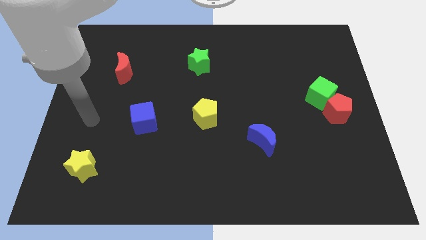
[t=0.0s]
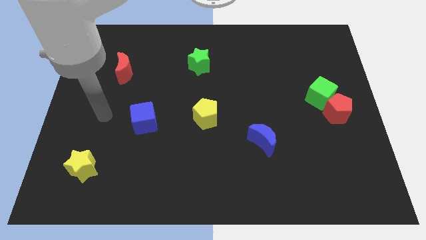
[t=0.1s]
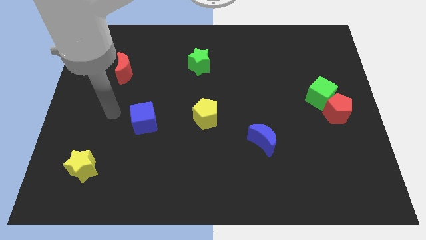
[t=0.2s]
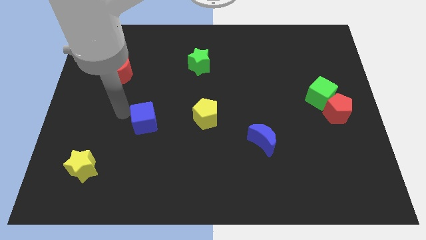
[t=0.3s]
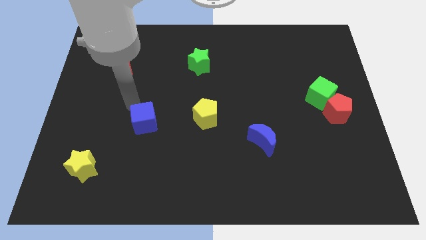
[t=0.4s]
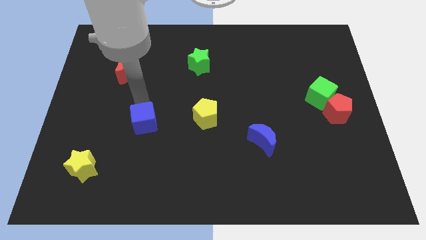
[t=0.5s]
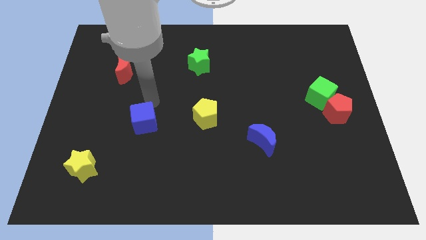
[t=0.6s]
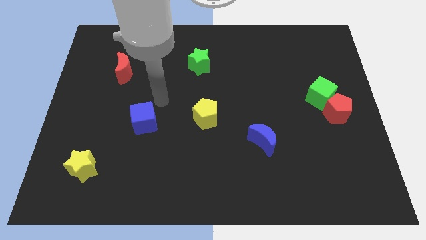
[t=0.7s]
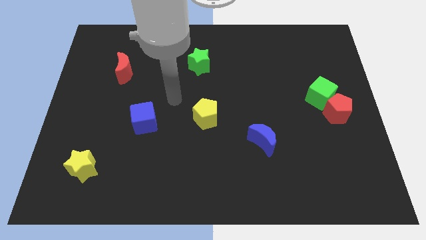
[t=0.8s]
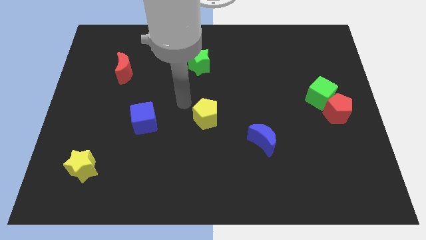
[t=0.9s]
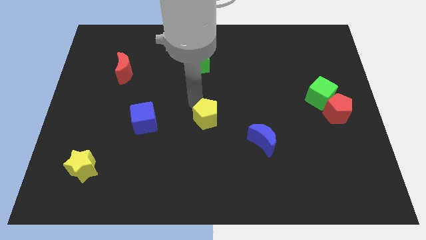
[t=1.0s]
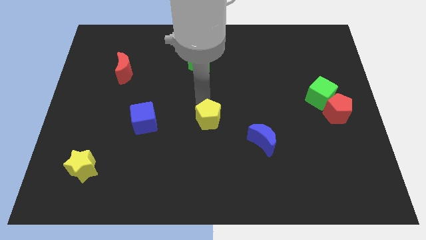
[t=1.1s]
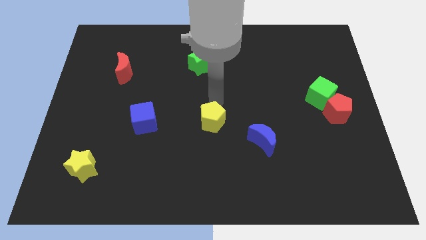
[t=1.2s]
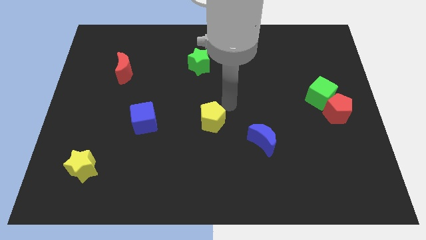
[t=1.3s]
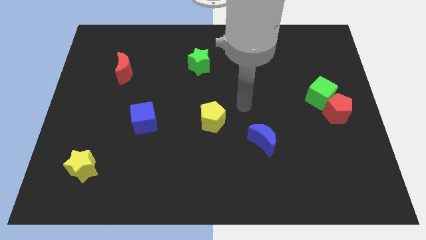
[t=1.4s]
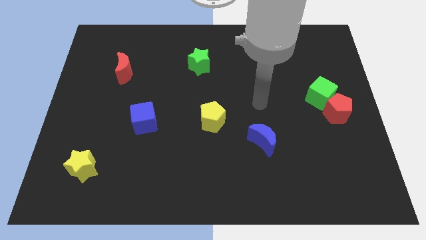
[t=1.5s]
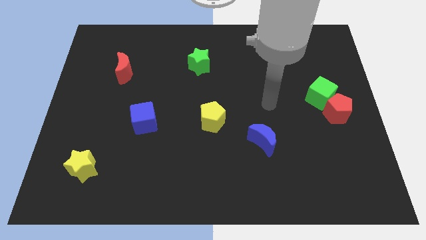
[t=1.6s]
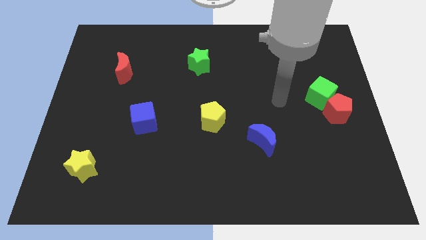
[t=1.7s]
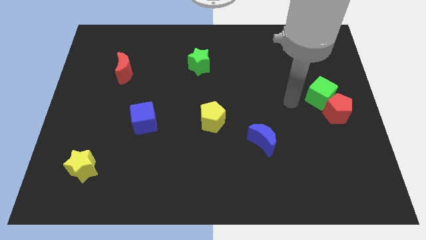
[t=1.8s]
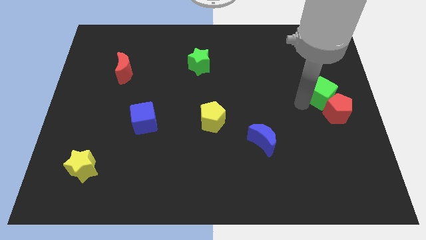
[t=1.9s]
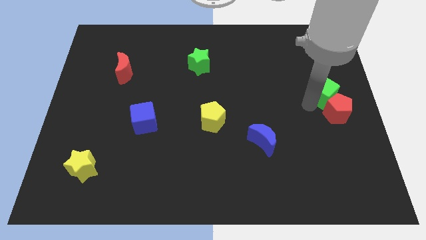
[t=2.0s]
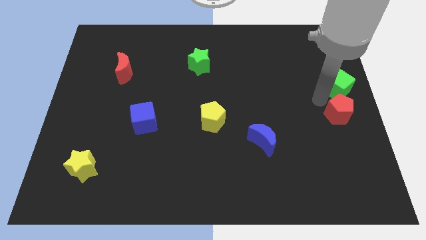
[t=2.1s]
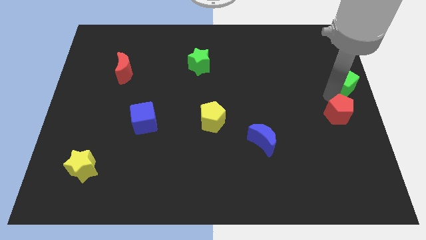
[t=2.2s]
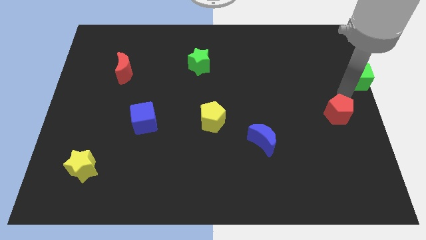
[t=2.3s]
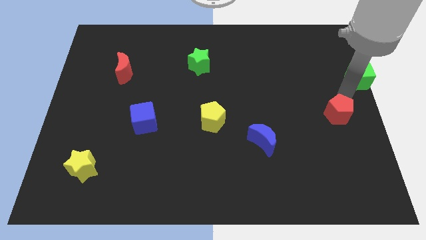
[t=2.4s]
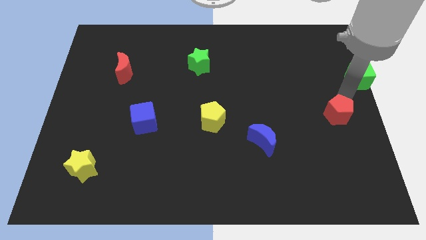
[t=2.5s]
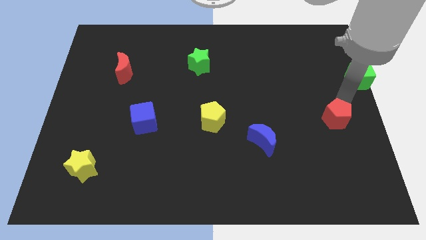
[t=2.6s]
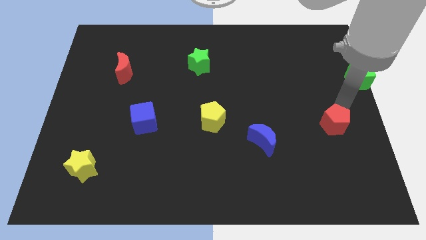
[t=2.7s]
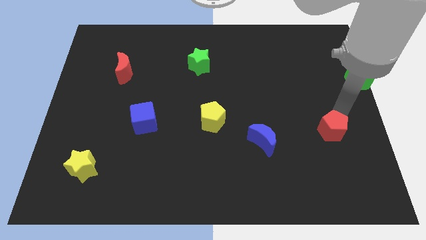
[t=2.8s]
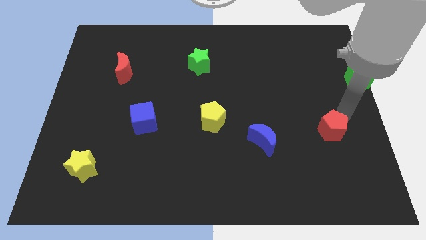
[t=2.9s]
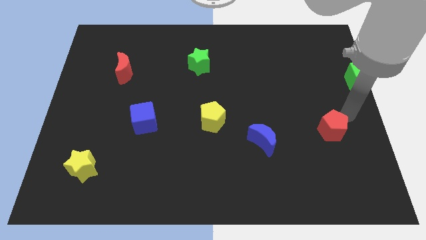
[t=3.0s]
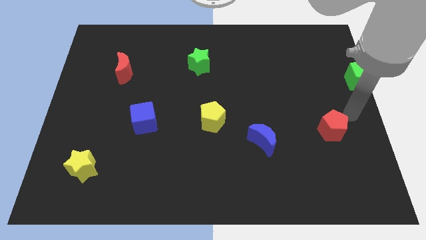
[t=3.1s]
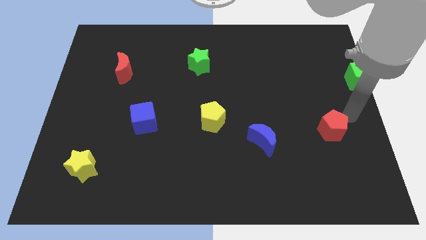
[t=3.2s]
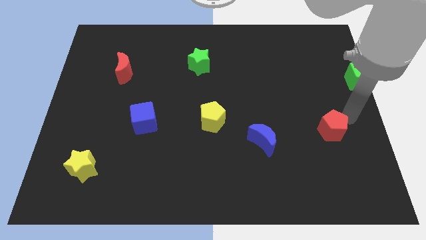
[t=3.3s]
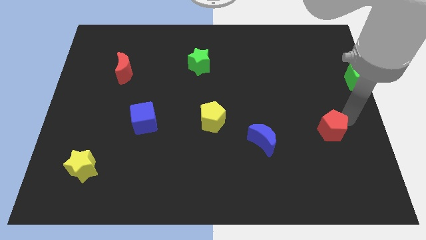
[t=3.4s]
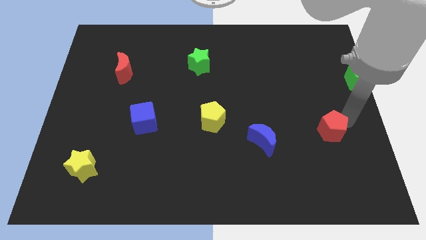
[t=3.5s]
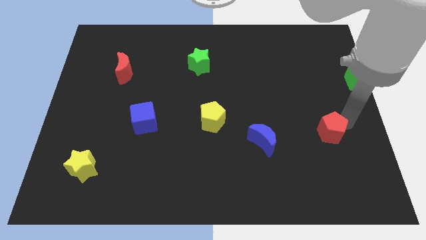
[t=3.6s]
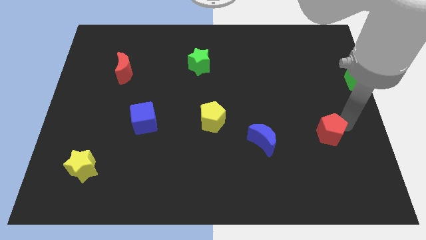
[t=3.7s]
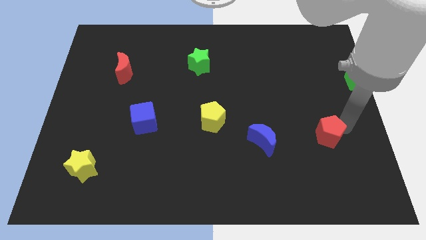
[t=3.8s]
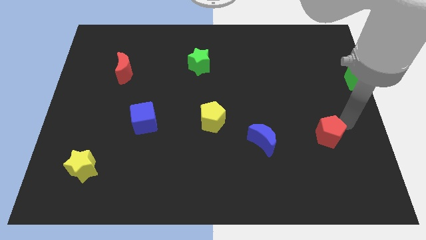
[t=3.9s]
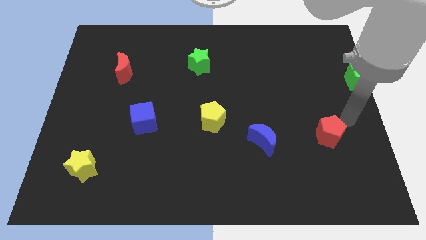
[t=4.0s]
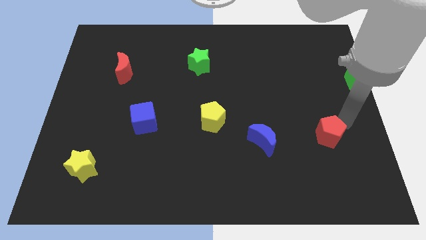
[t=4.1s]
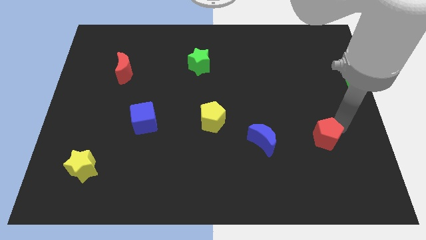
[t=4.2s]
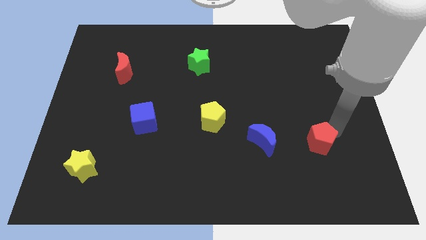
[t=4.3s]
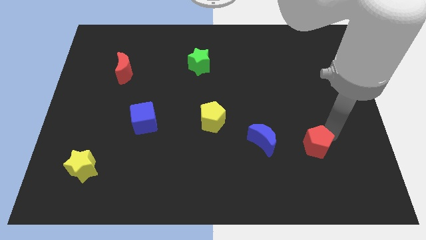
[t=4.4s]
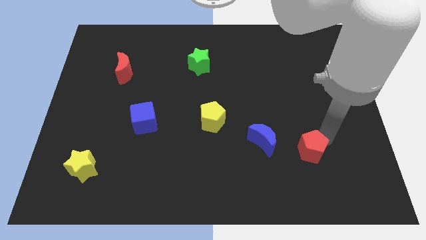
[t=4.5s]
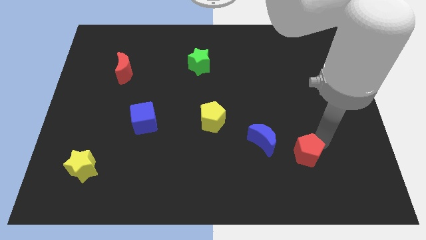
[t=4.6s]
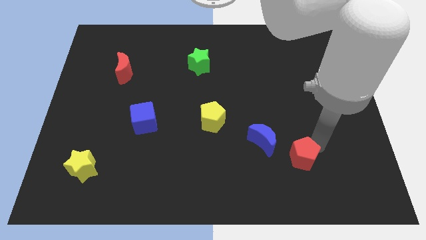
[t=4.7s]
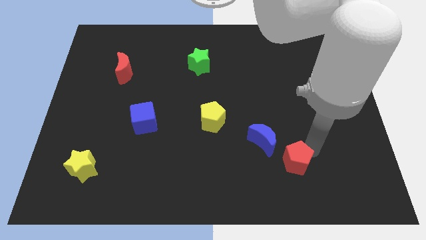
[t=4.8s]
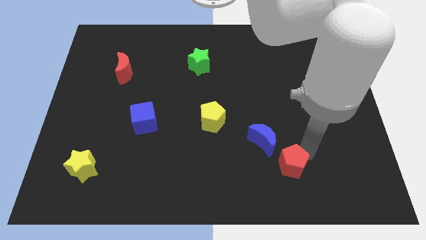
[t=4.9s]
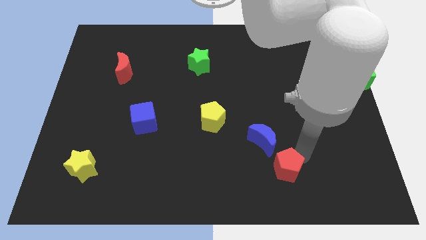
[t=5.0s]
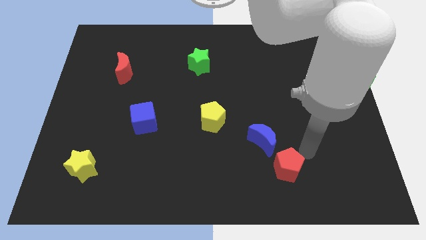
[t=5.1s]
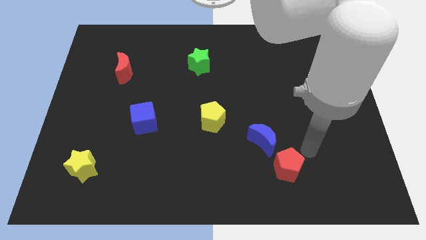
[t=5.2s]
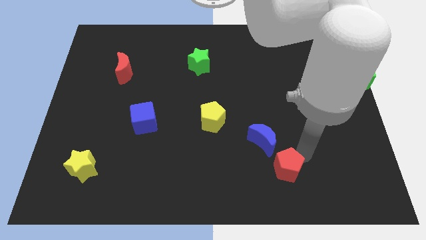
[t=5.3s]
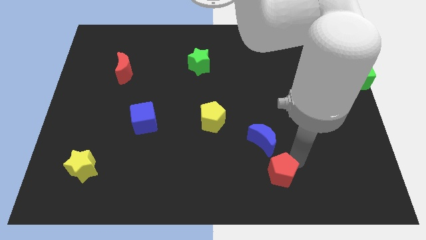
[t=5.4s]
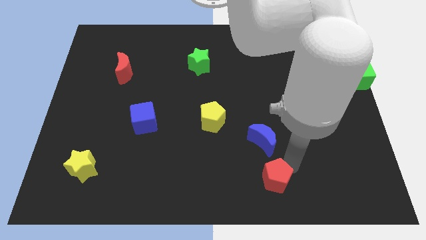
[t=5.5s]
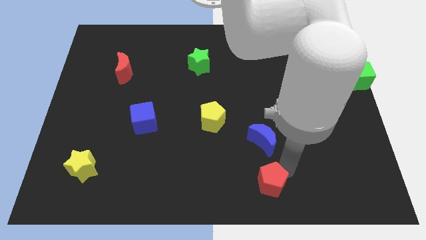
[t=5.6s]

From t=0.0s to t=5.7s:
slide the red pentagon to the bottom side

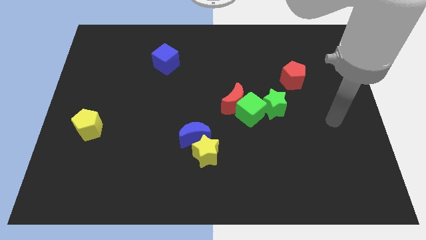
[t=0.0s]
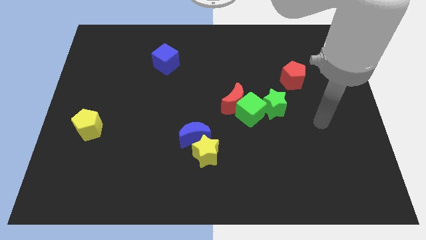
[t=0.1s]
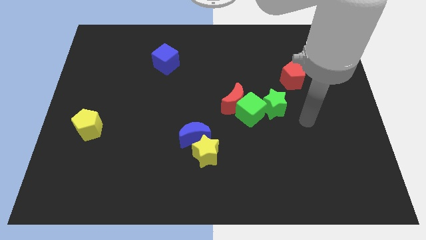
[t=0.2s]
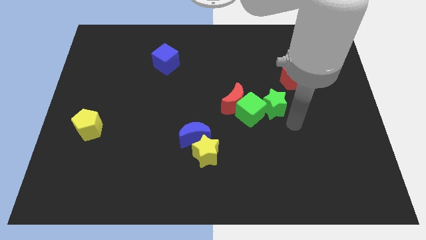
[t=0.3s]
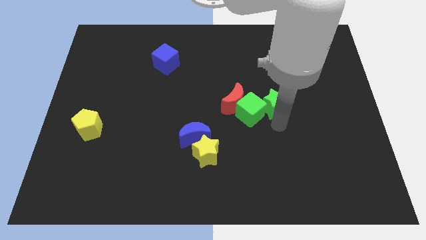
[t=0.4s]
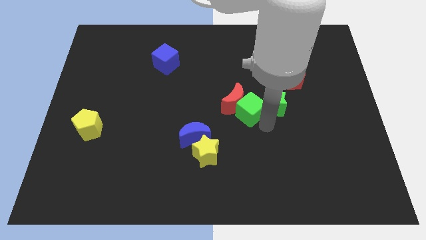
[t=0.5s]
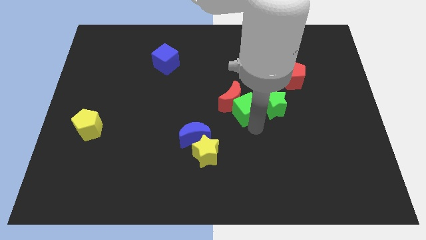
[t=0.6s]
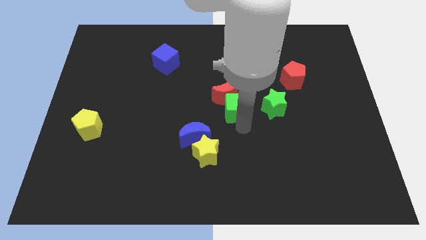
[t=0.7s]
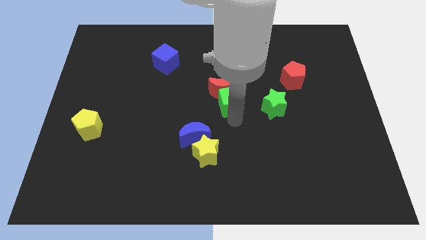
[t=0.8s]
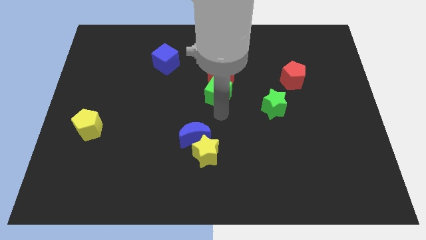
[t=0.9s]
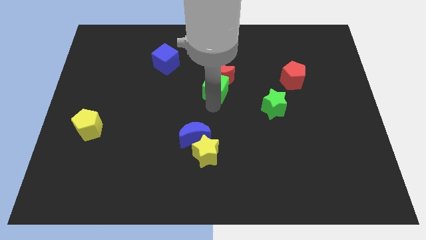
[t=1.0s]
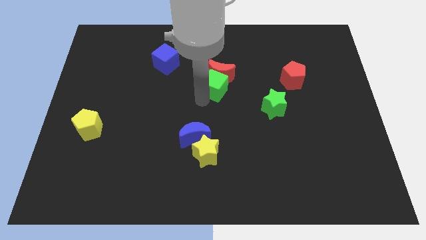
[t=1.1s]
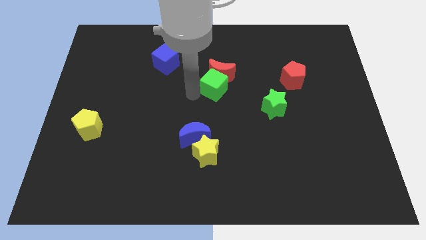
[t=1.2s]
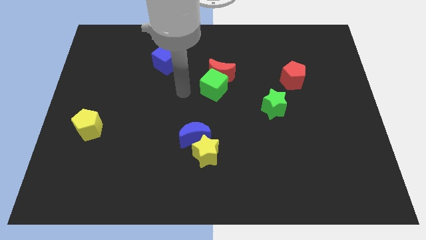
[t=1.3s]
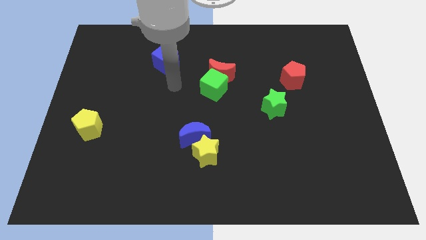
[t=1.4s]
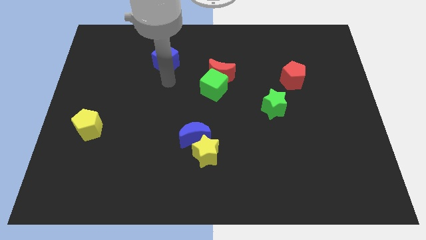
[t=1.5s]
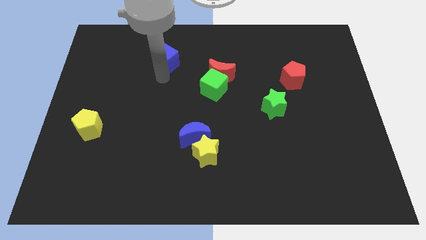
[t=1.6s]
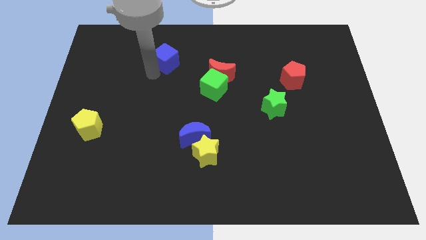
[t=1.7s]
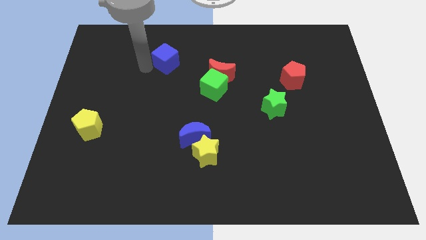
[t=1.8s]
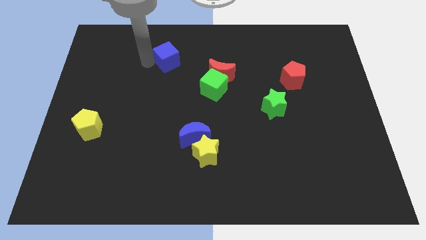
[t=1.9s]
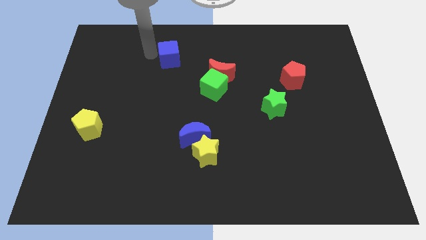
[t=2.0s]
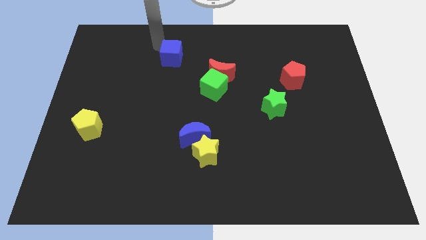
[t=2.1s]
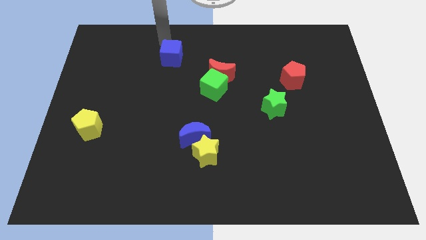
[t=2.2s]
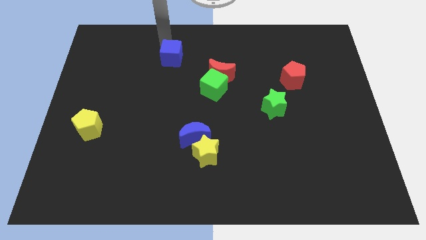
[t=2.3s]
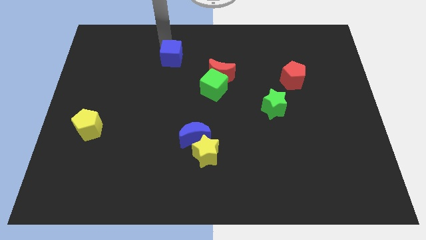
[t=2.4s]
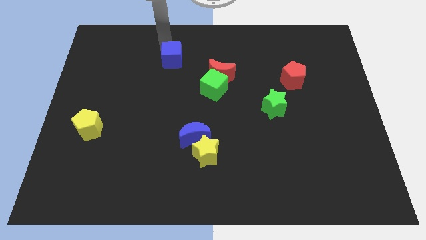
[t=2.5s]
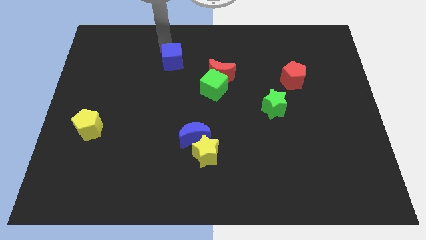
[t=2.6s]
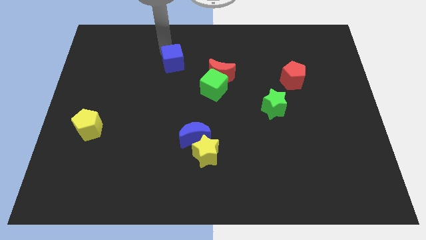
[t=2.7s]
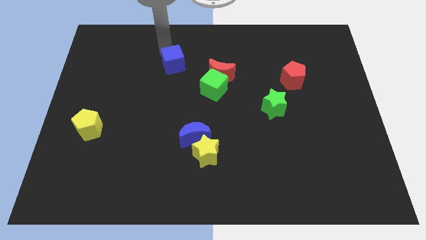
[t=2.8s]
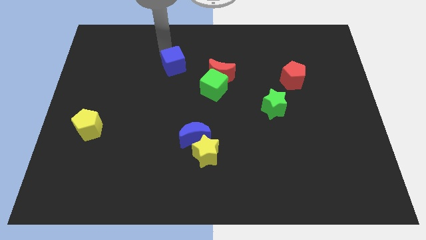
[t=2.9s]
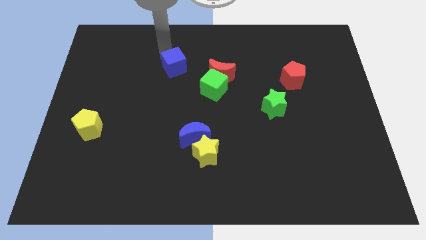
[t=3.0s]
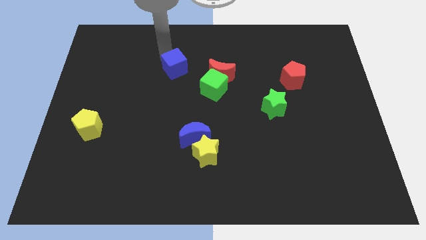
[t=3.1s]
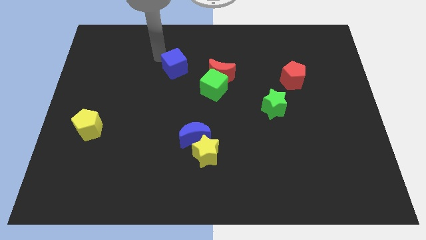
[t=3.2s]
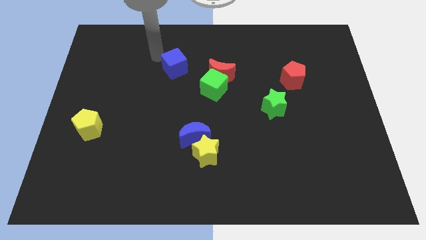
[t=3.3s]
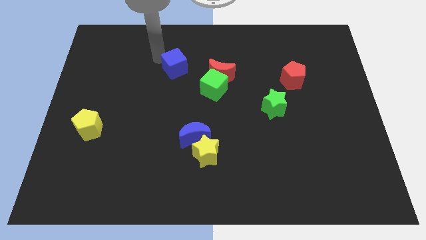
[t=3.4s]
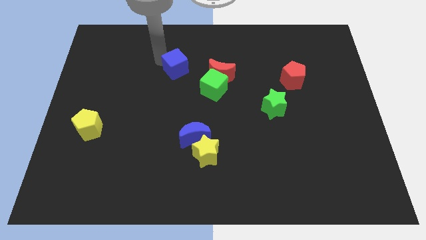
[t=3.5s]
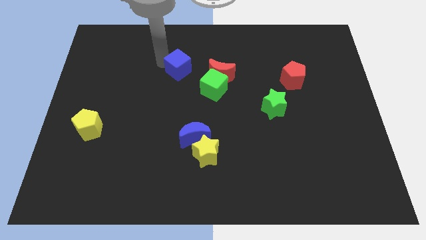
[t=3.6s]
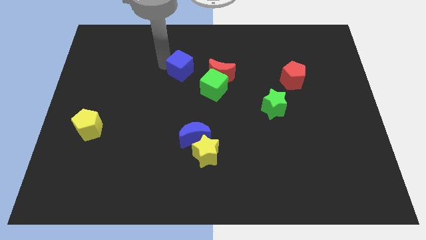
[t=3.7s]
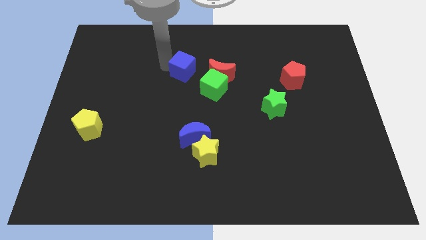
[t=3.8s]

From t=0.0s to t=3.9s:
push the blue cube to the center of the board
